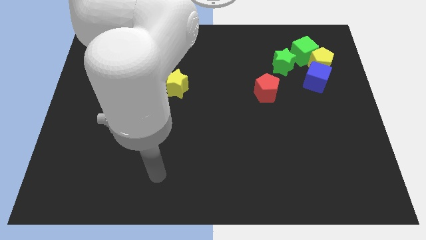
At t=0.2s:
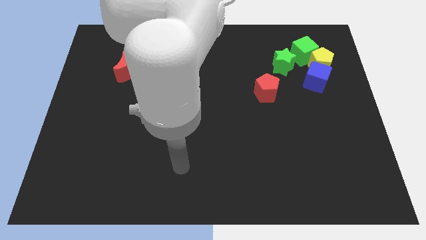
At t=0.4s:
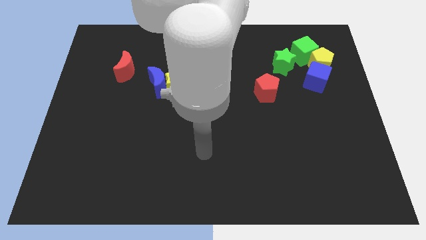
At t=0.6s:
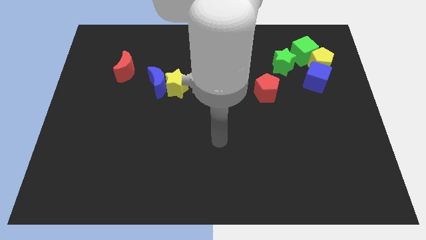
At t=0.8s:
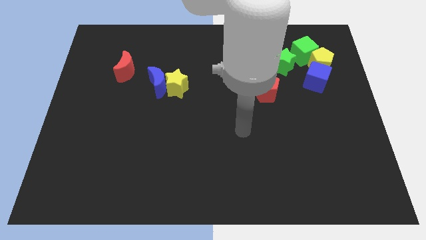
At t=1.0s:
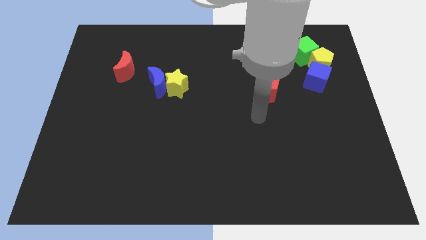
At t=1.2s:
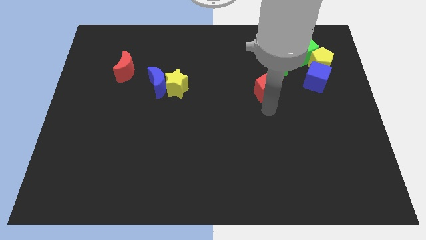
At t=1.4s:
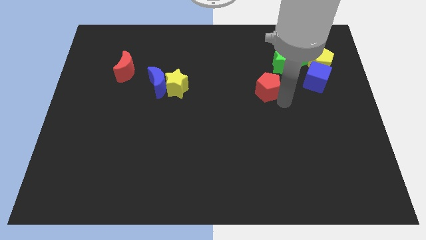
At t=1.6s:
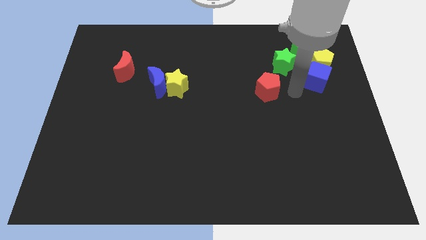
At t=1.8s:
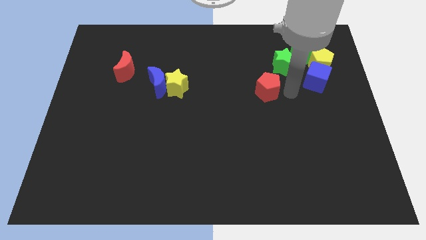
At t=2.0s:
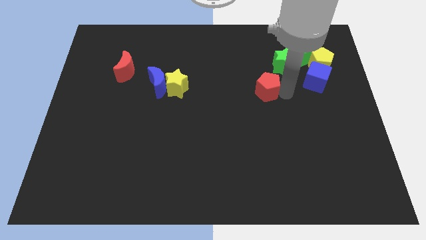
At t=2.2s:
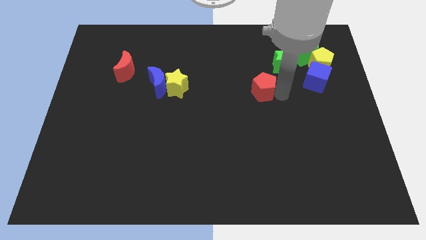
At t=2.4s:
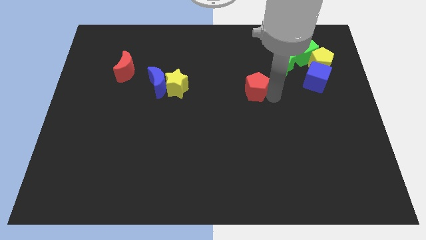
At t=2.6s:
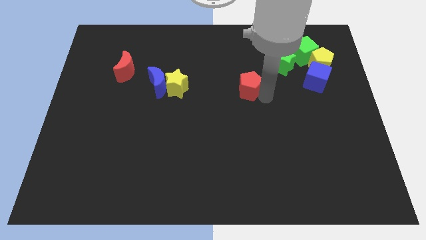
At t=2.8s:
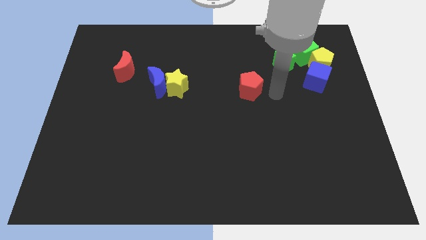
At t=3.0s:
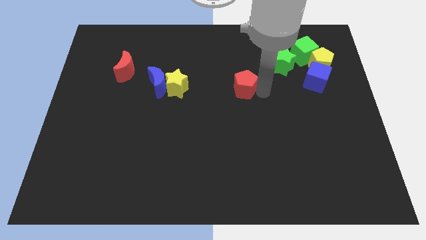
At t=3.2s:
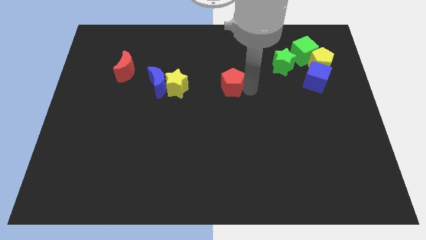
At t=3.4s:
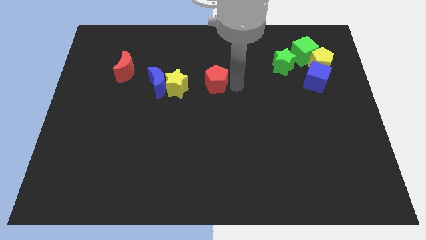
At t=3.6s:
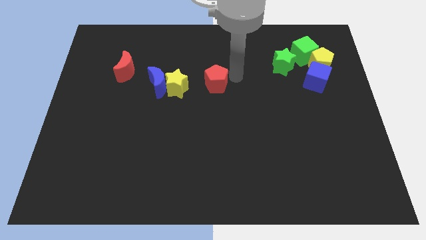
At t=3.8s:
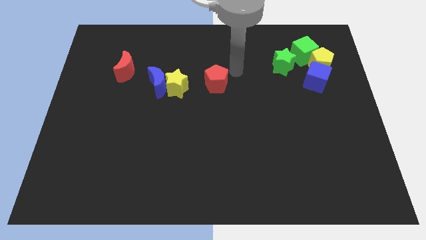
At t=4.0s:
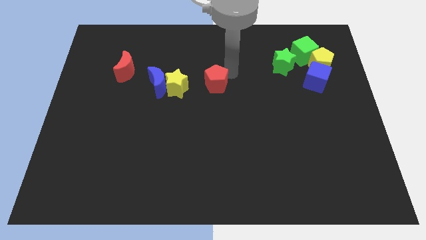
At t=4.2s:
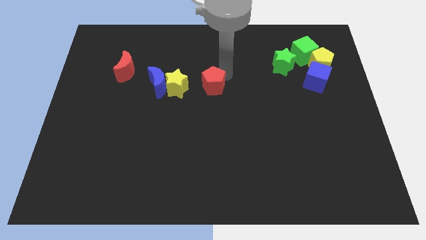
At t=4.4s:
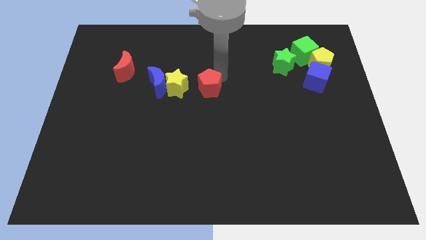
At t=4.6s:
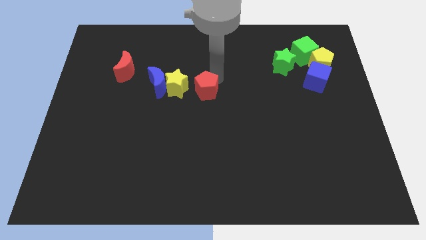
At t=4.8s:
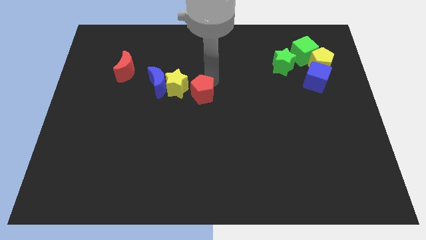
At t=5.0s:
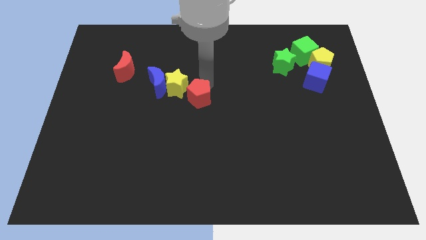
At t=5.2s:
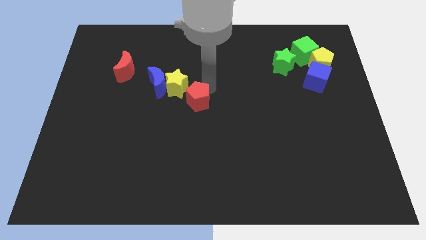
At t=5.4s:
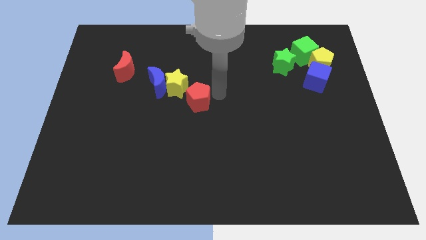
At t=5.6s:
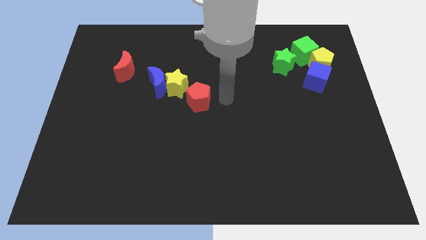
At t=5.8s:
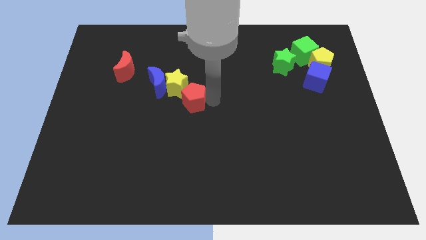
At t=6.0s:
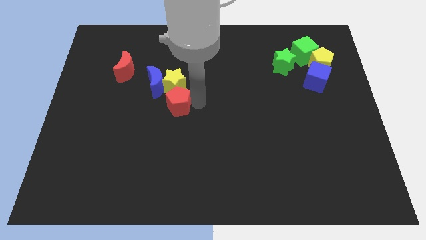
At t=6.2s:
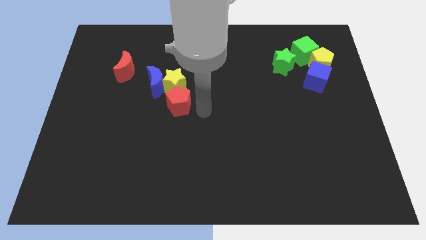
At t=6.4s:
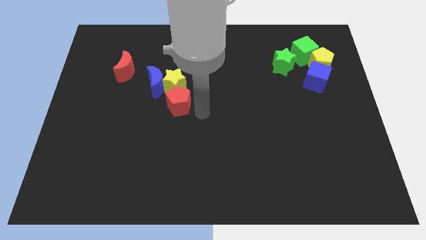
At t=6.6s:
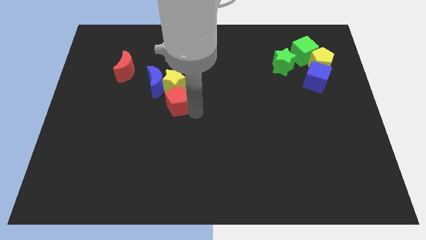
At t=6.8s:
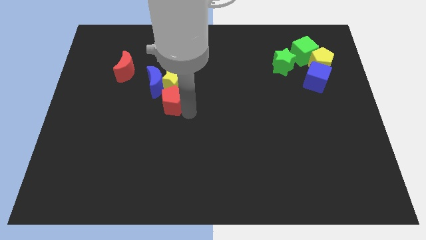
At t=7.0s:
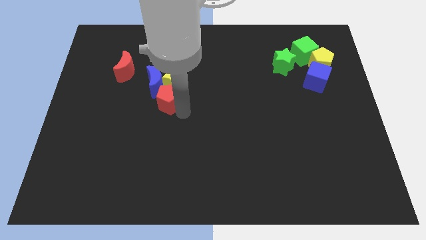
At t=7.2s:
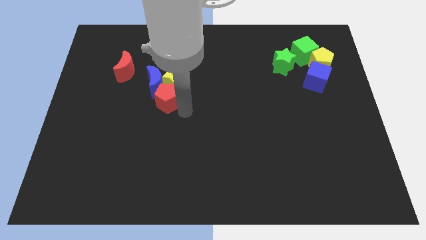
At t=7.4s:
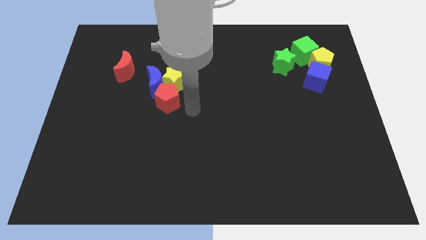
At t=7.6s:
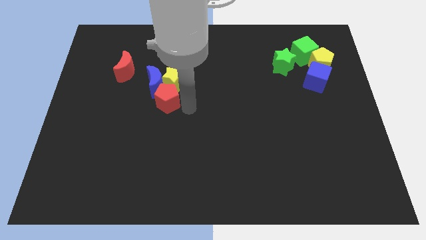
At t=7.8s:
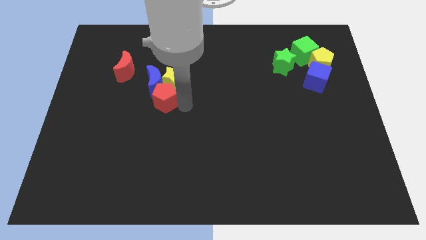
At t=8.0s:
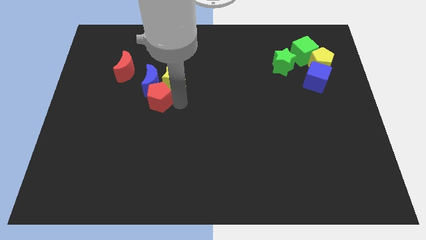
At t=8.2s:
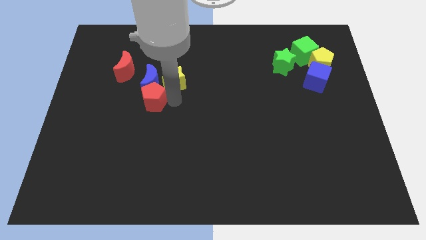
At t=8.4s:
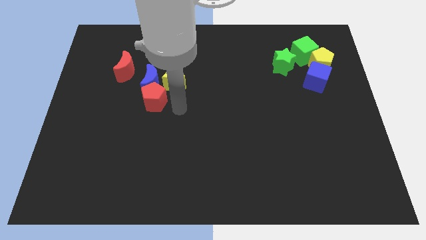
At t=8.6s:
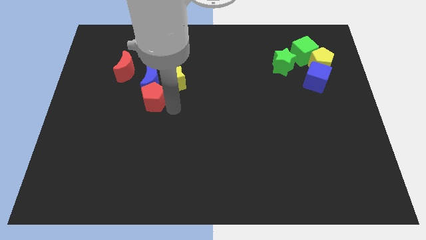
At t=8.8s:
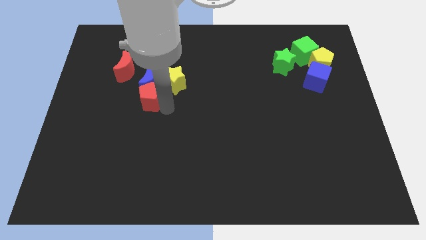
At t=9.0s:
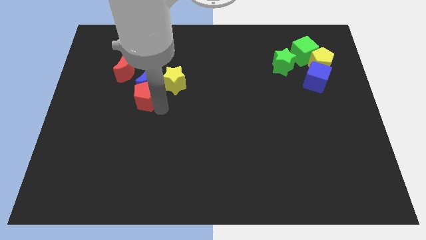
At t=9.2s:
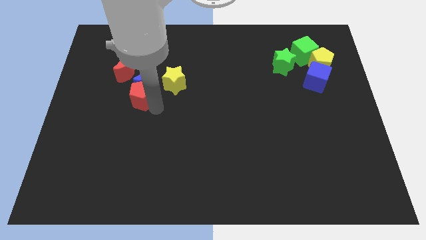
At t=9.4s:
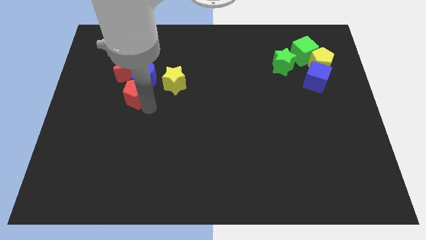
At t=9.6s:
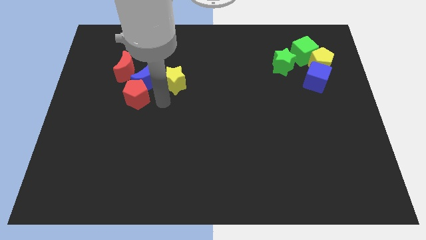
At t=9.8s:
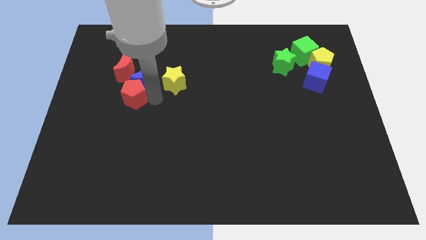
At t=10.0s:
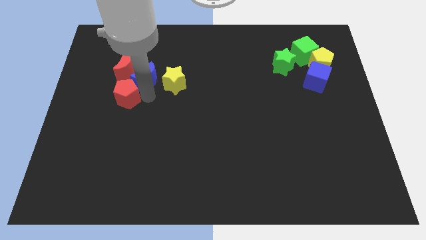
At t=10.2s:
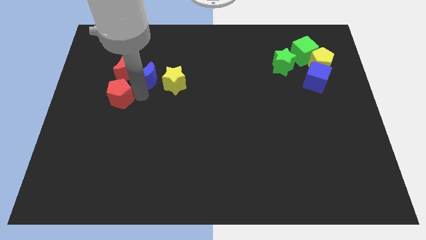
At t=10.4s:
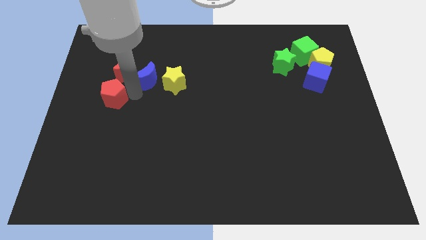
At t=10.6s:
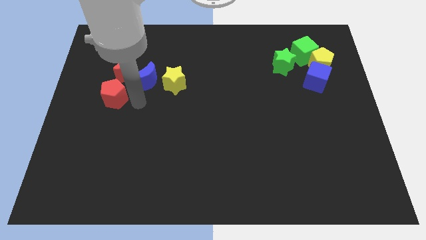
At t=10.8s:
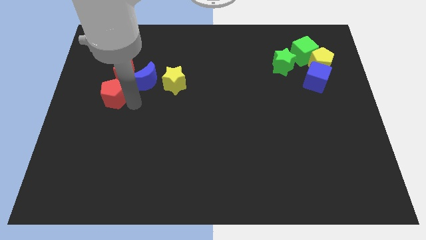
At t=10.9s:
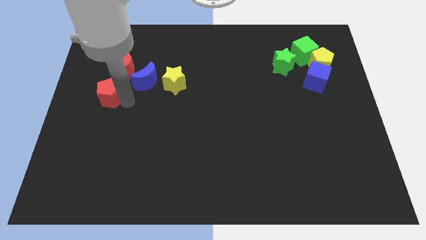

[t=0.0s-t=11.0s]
push the red pentagon to the center left
